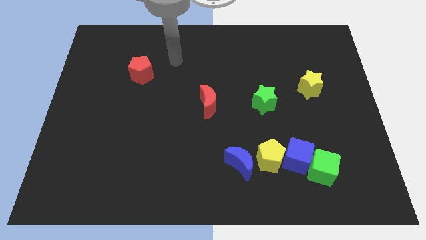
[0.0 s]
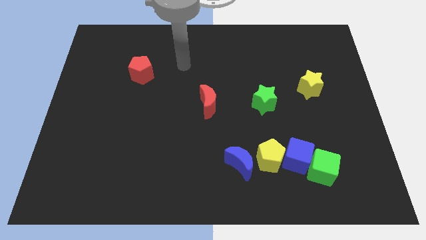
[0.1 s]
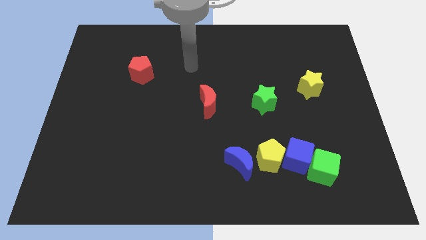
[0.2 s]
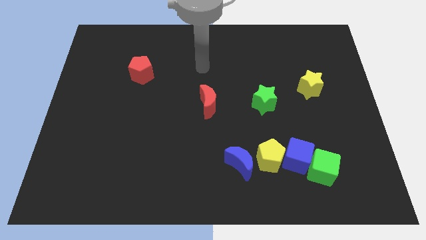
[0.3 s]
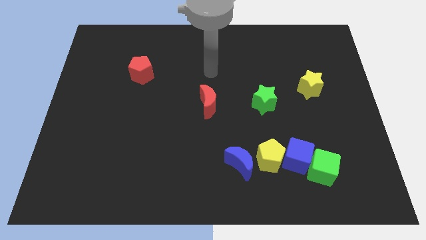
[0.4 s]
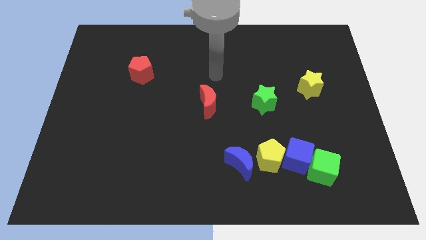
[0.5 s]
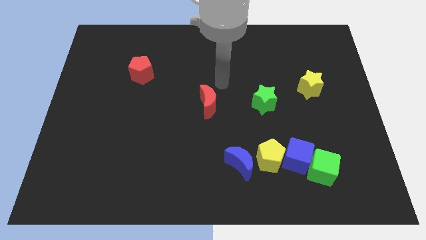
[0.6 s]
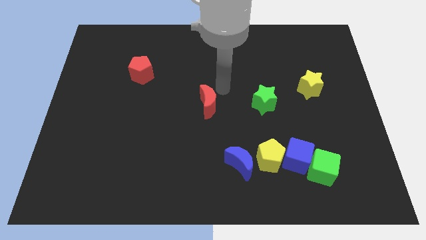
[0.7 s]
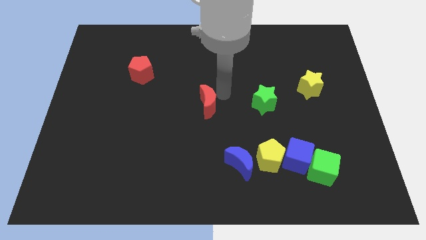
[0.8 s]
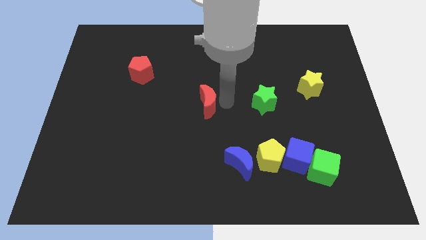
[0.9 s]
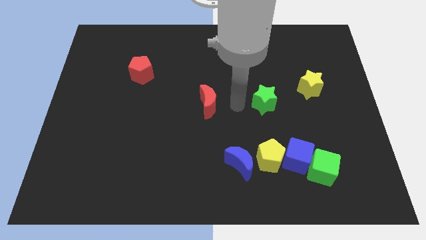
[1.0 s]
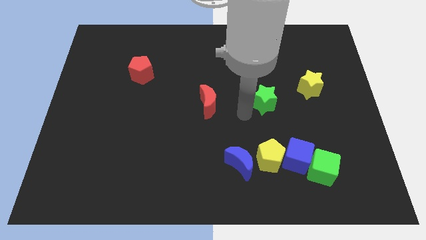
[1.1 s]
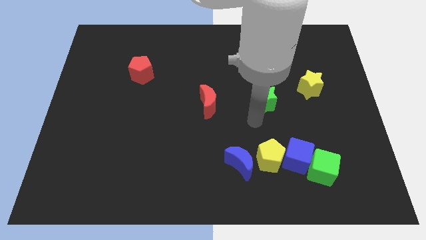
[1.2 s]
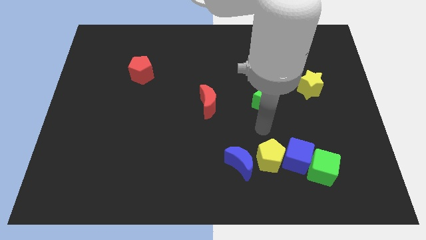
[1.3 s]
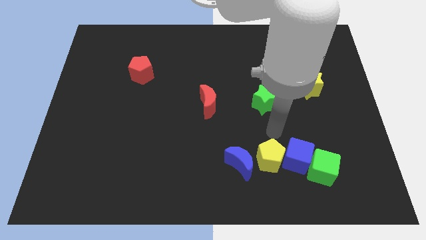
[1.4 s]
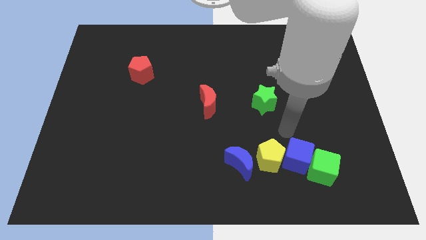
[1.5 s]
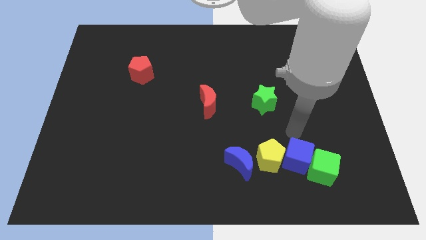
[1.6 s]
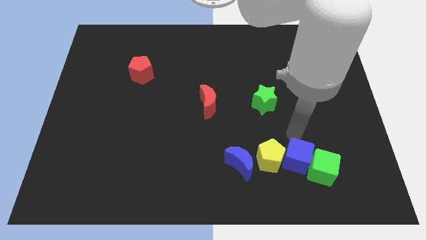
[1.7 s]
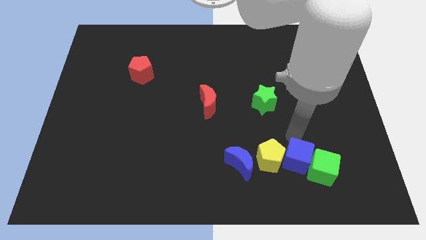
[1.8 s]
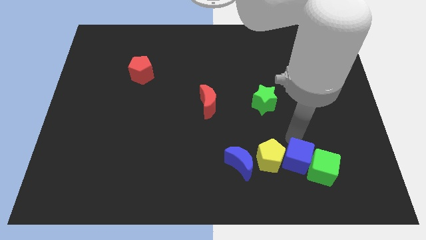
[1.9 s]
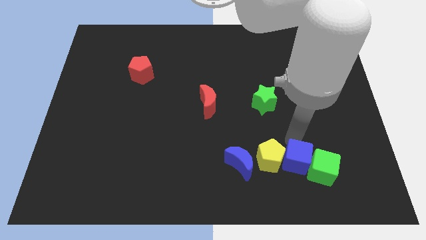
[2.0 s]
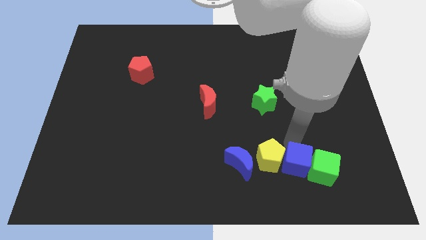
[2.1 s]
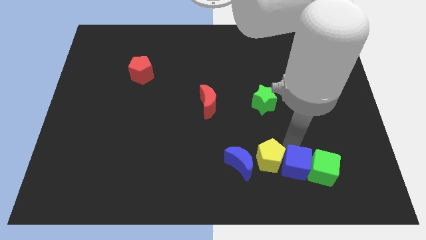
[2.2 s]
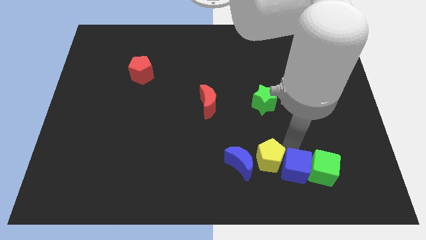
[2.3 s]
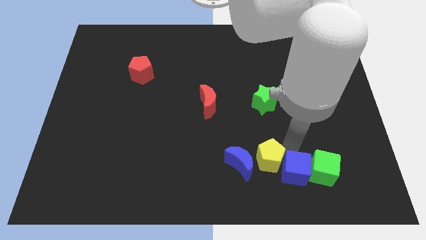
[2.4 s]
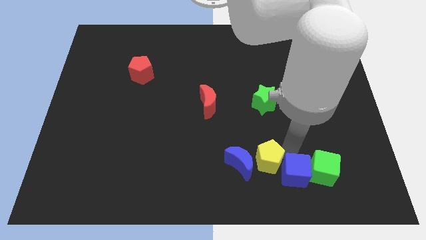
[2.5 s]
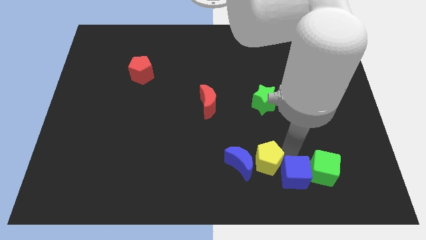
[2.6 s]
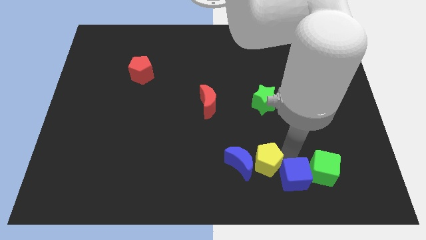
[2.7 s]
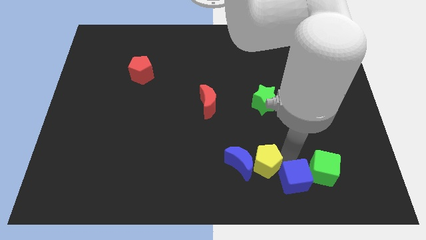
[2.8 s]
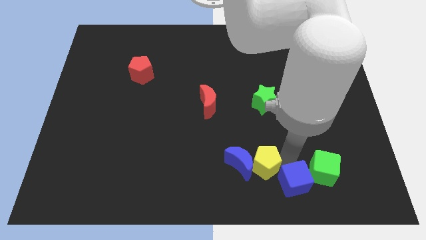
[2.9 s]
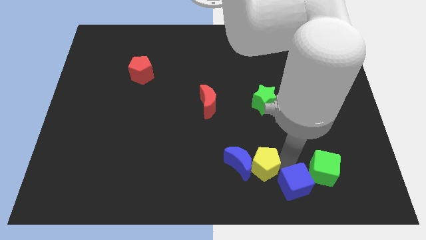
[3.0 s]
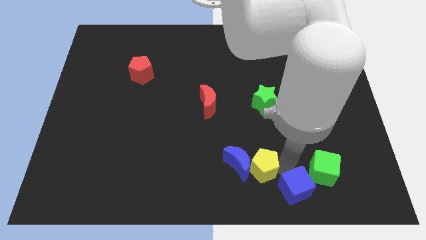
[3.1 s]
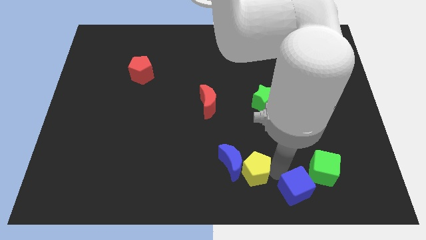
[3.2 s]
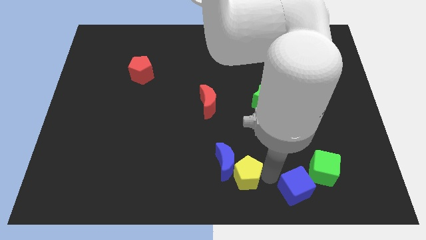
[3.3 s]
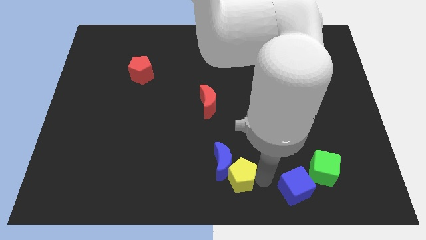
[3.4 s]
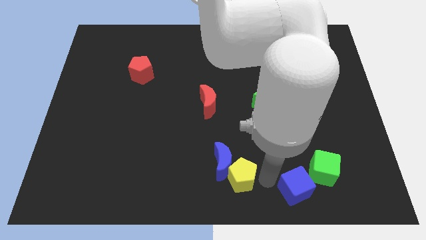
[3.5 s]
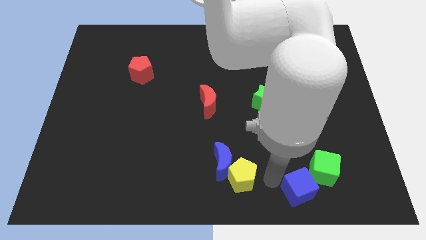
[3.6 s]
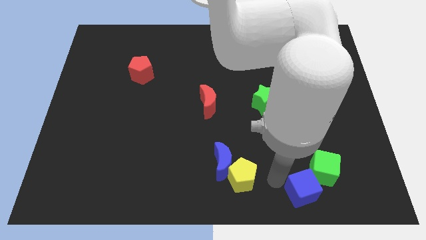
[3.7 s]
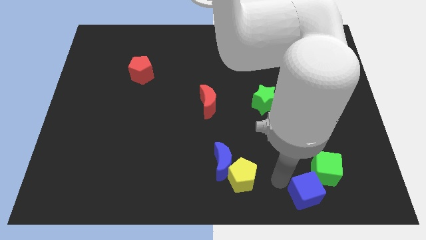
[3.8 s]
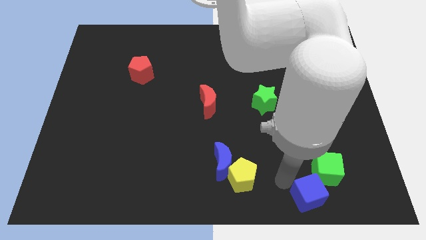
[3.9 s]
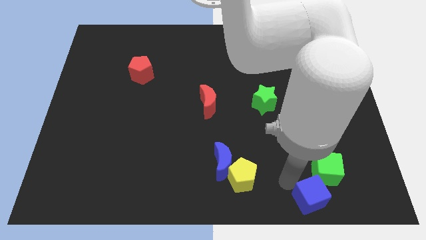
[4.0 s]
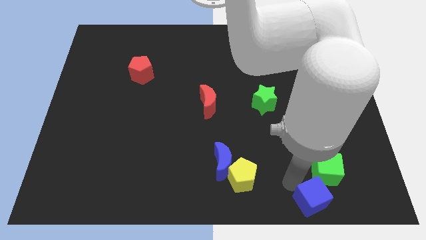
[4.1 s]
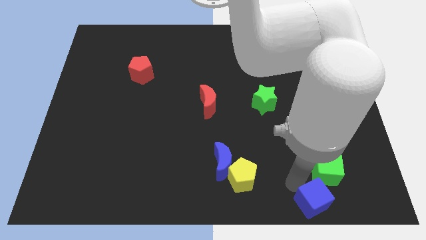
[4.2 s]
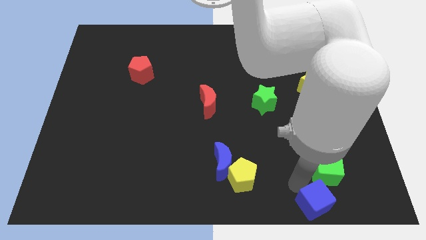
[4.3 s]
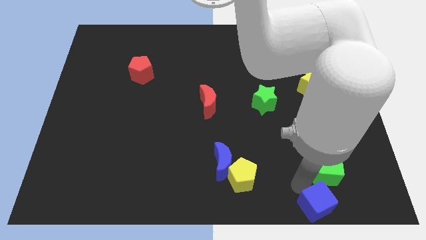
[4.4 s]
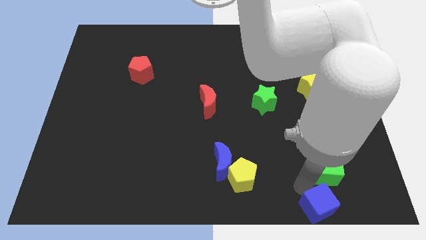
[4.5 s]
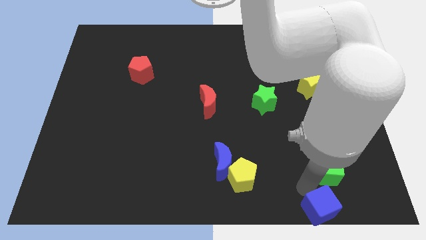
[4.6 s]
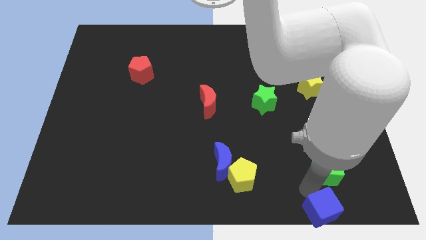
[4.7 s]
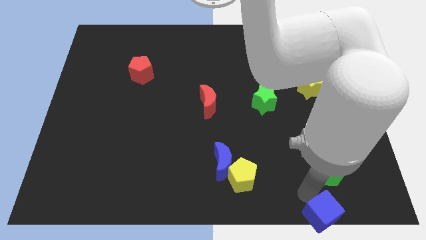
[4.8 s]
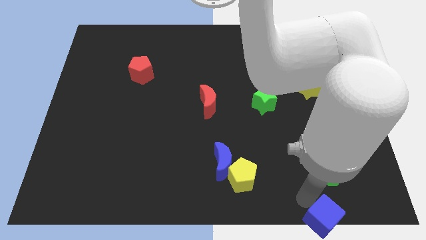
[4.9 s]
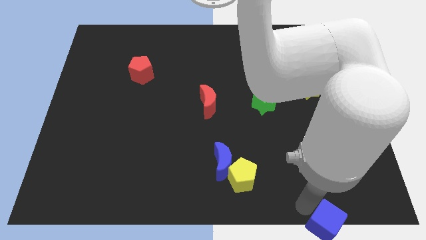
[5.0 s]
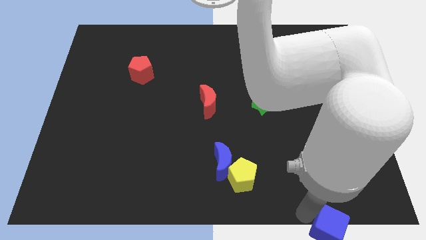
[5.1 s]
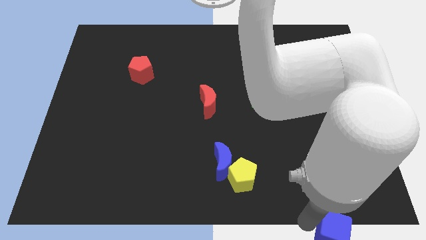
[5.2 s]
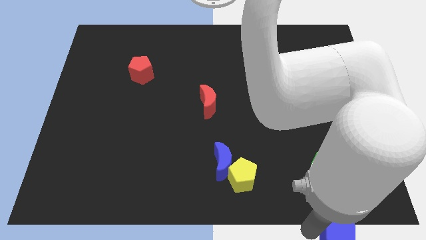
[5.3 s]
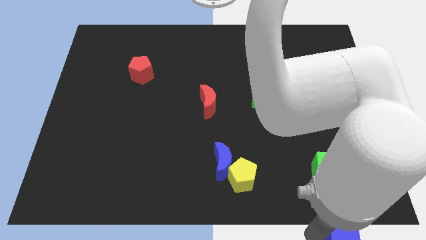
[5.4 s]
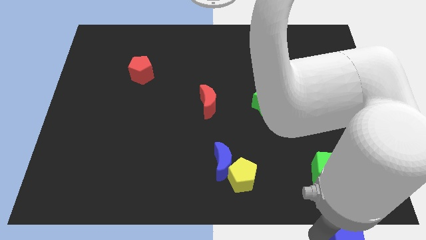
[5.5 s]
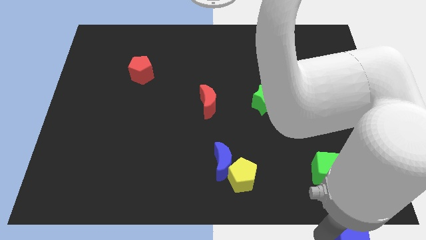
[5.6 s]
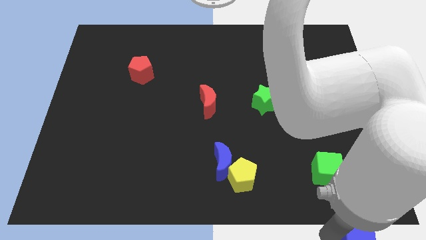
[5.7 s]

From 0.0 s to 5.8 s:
move the blue cube to the bottom right corner
